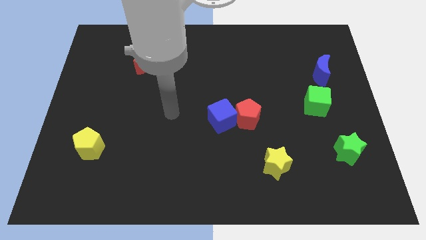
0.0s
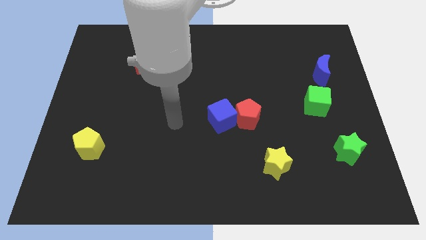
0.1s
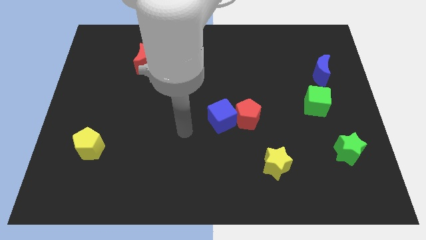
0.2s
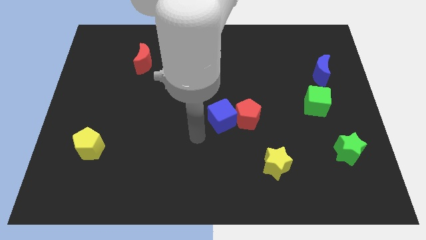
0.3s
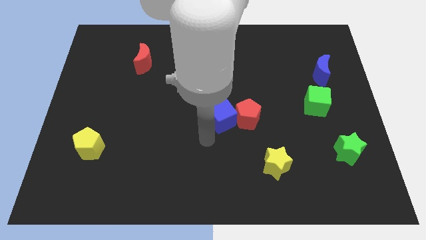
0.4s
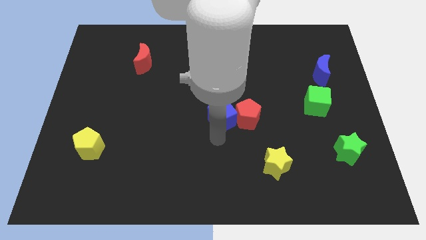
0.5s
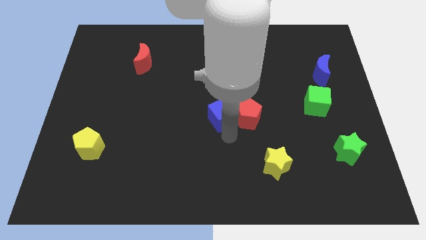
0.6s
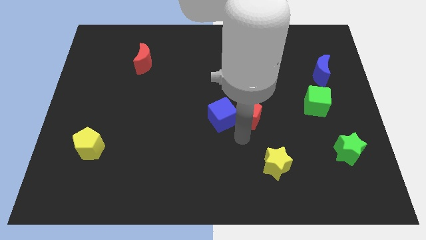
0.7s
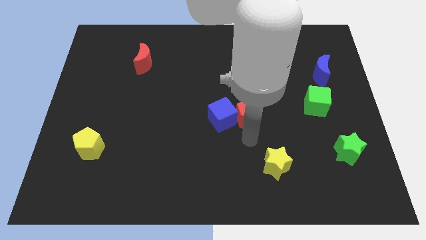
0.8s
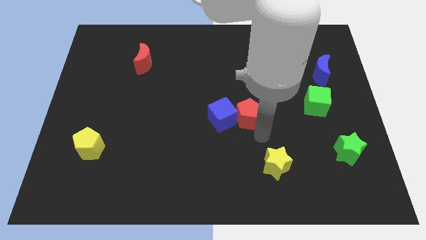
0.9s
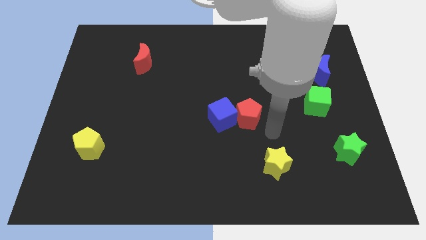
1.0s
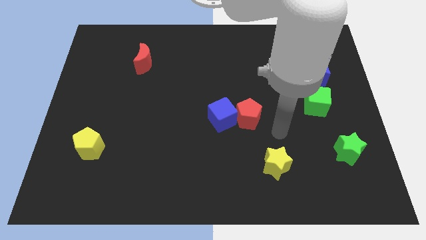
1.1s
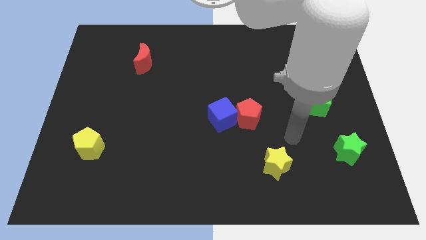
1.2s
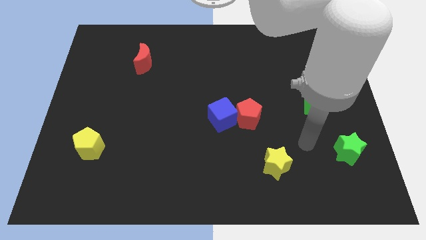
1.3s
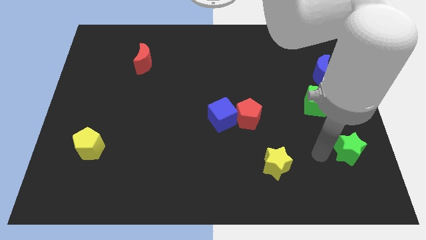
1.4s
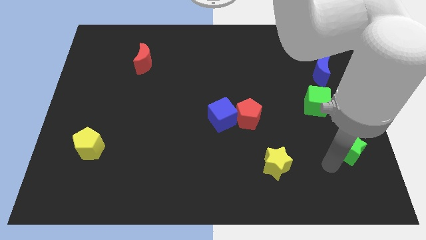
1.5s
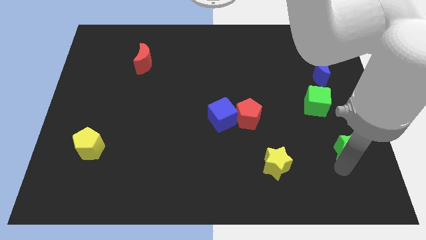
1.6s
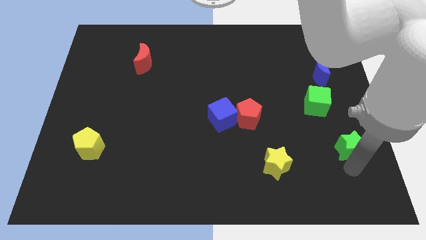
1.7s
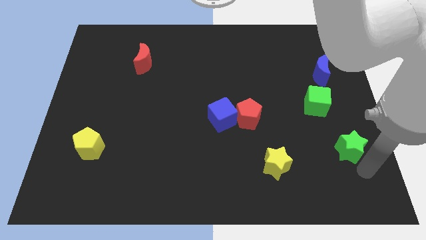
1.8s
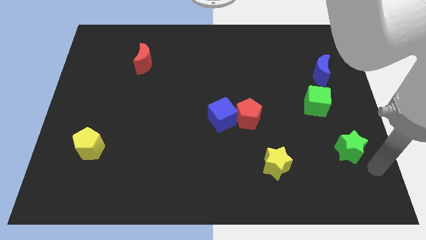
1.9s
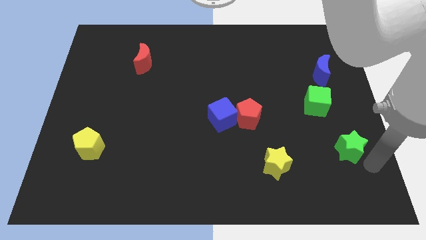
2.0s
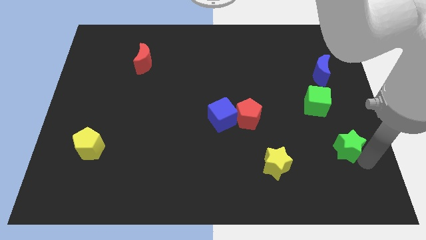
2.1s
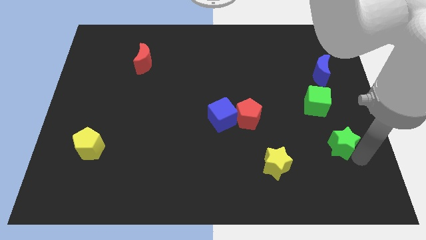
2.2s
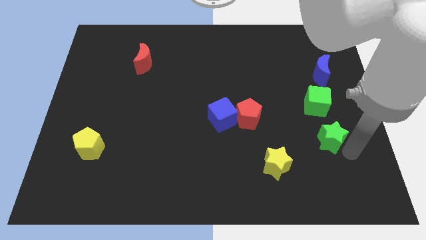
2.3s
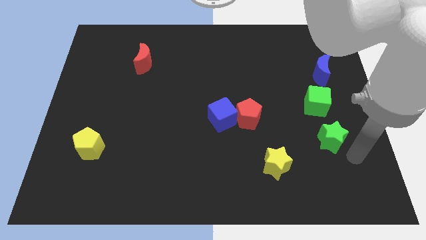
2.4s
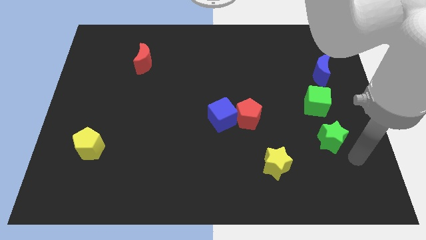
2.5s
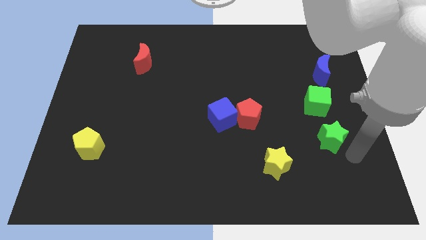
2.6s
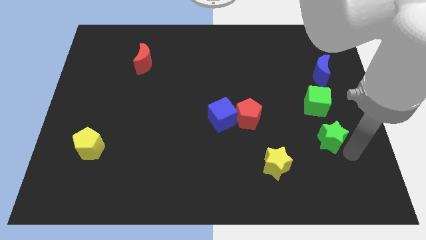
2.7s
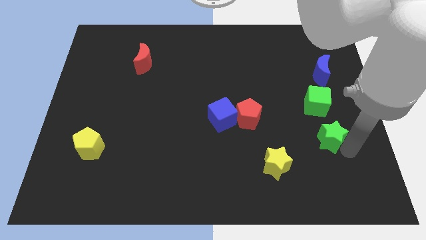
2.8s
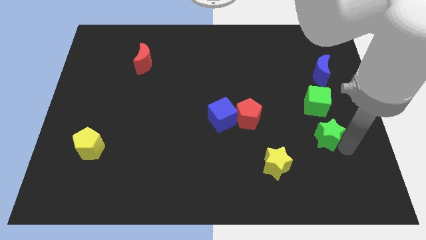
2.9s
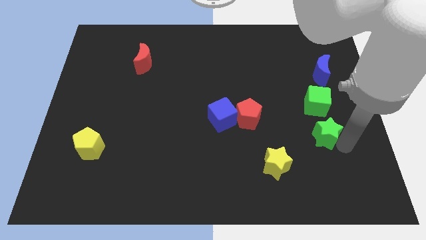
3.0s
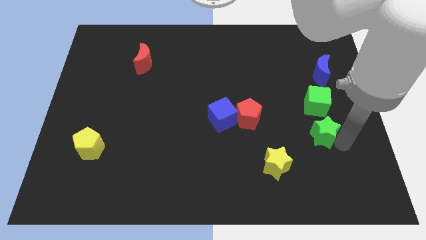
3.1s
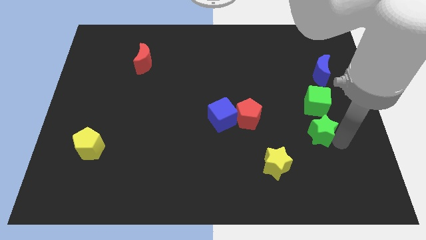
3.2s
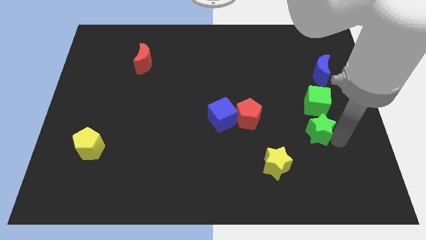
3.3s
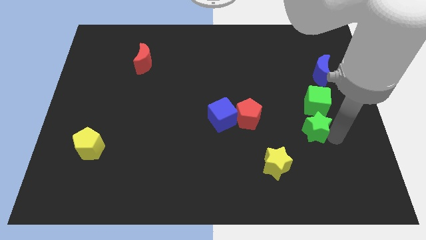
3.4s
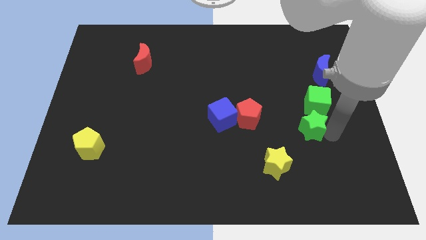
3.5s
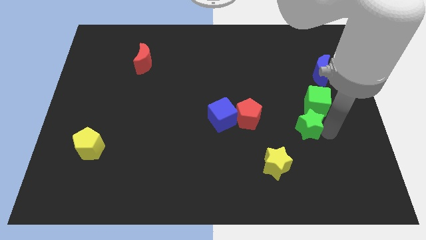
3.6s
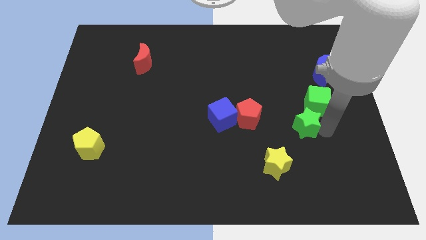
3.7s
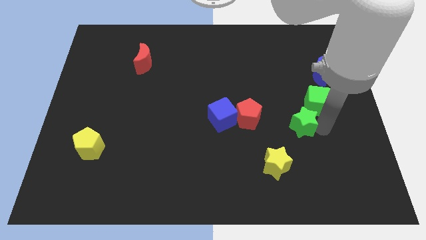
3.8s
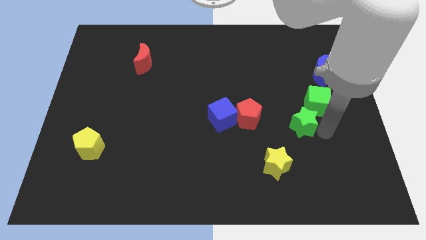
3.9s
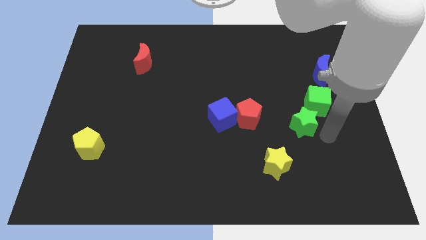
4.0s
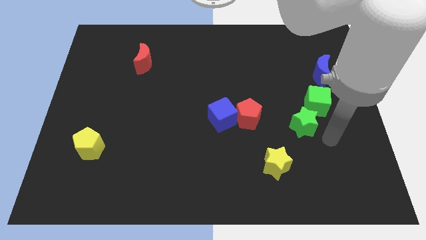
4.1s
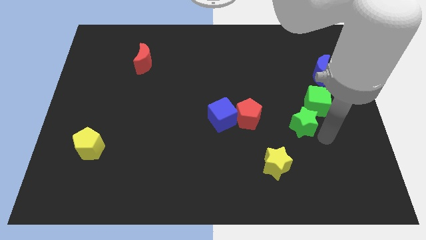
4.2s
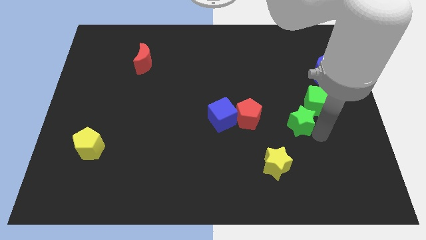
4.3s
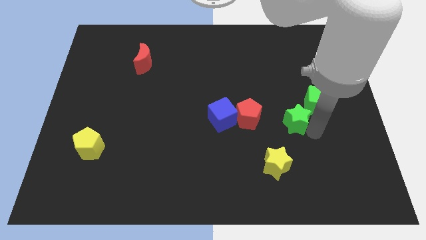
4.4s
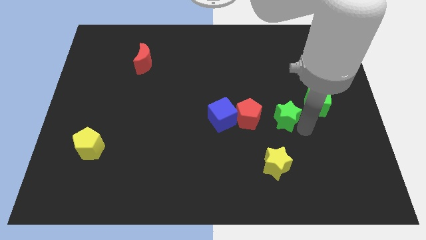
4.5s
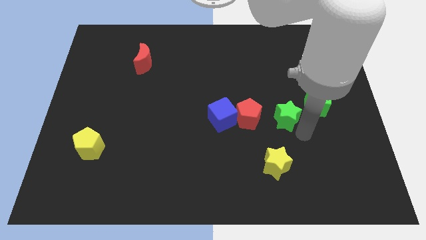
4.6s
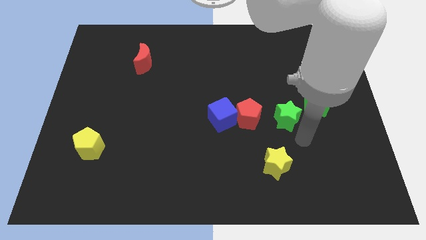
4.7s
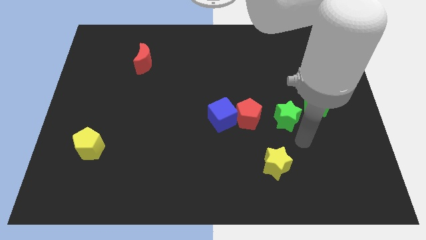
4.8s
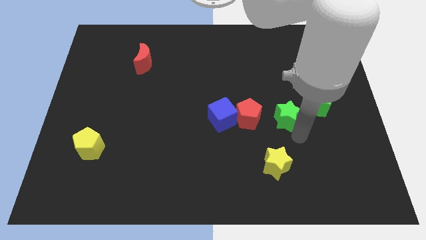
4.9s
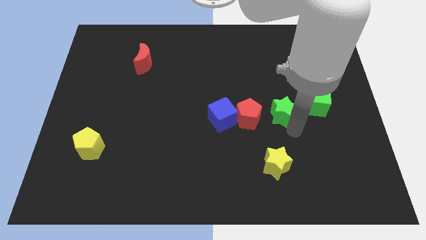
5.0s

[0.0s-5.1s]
put the green star to the top right of the red pentagon

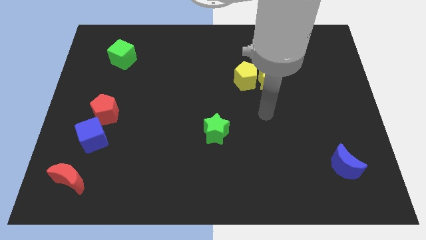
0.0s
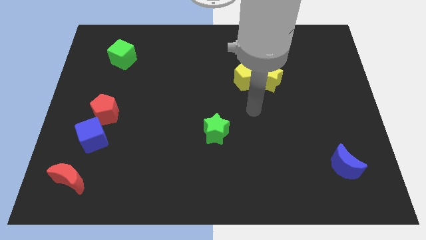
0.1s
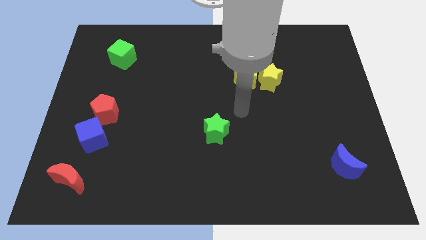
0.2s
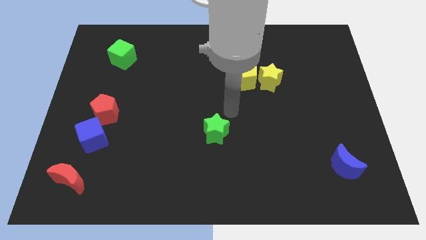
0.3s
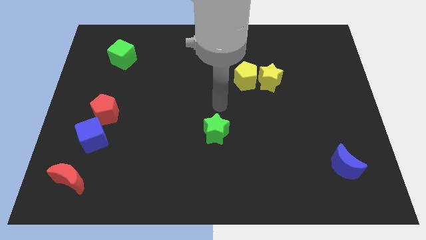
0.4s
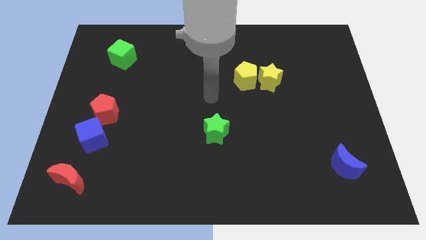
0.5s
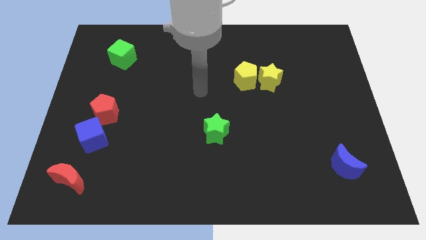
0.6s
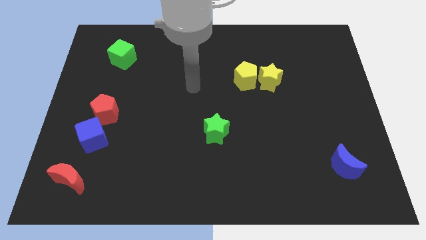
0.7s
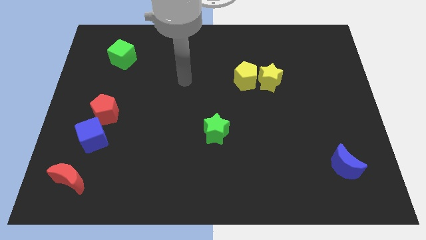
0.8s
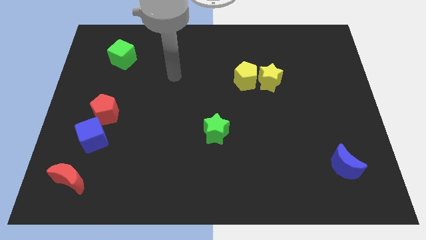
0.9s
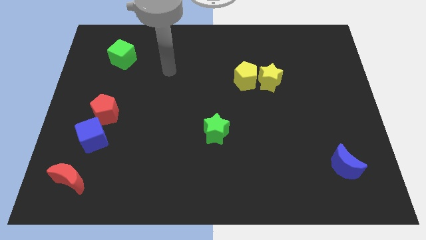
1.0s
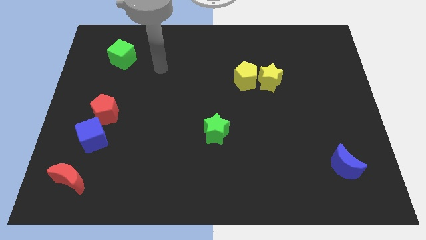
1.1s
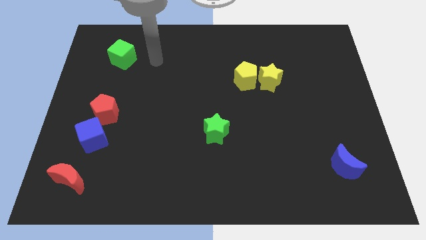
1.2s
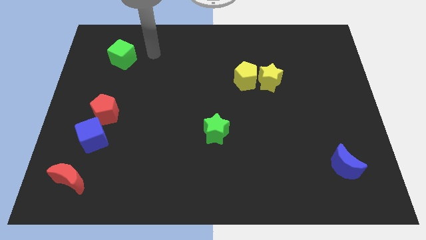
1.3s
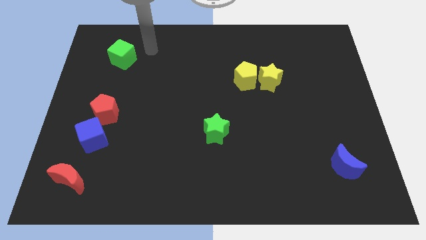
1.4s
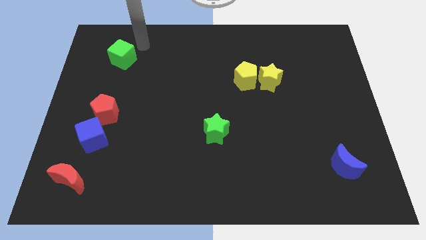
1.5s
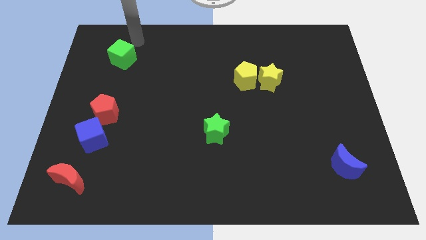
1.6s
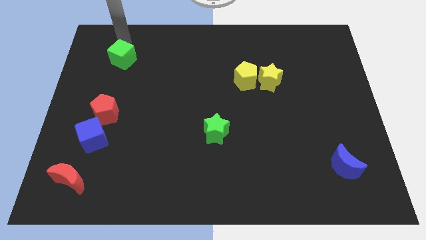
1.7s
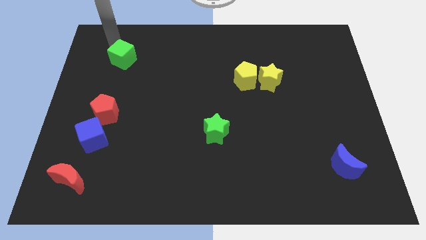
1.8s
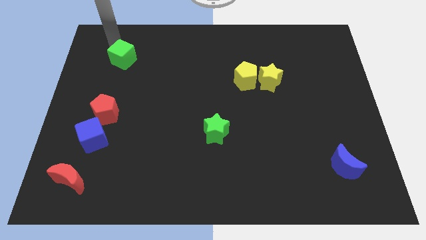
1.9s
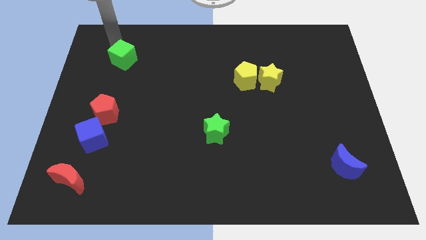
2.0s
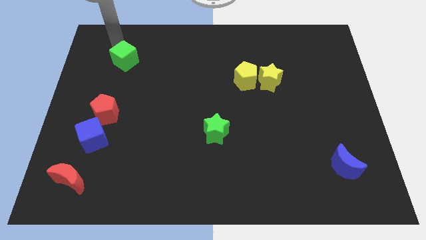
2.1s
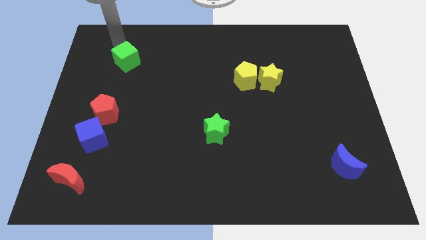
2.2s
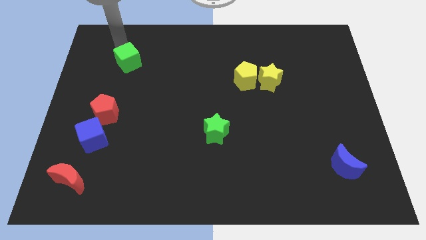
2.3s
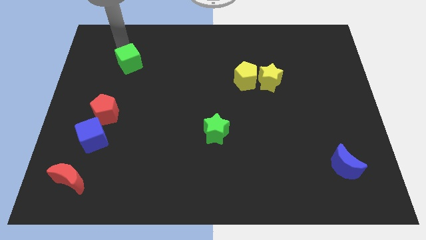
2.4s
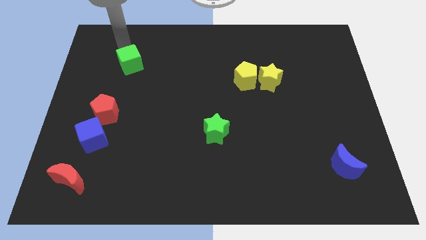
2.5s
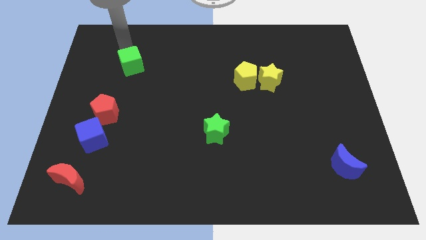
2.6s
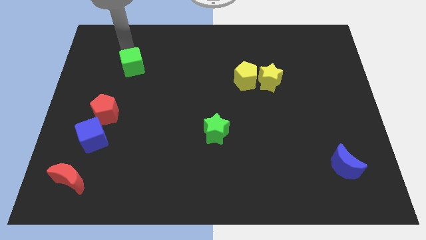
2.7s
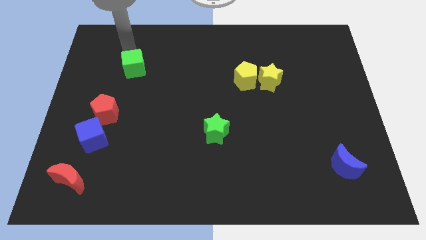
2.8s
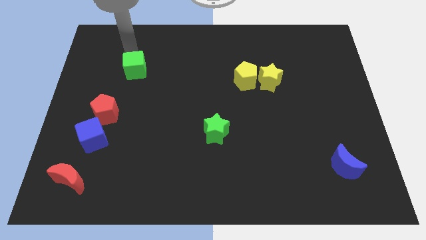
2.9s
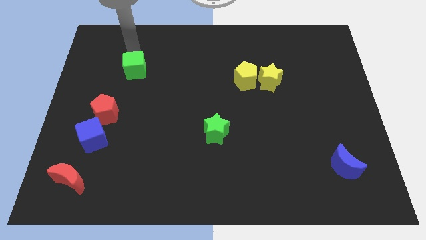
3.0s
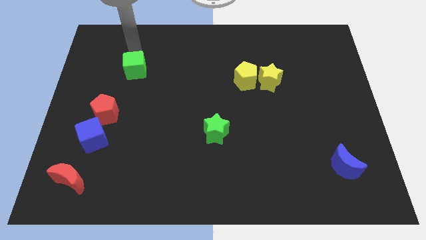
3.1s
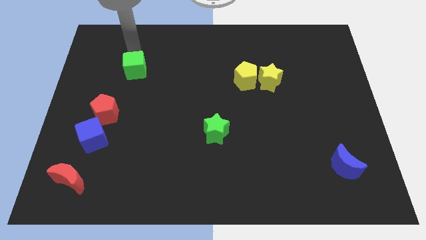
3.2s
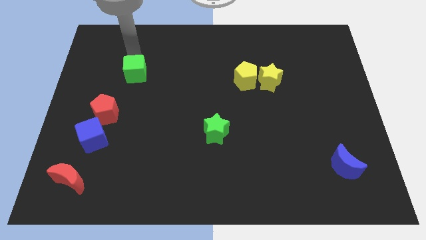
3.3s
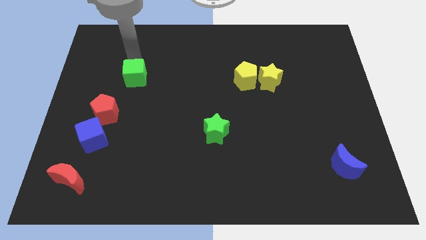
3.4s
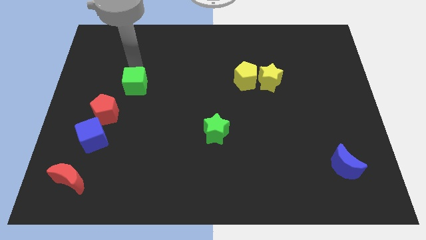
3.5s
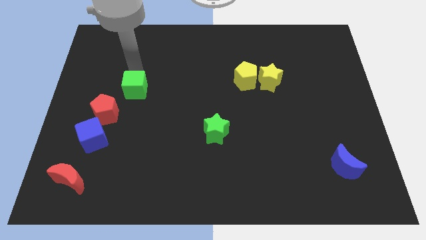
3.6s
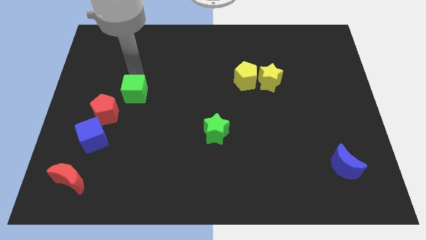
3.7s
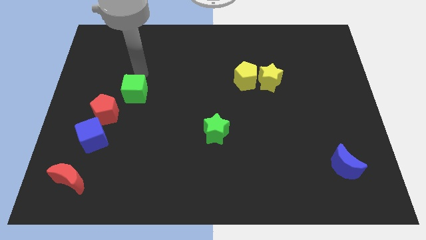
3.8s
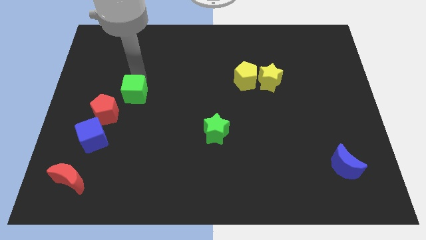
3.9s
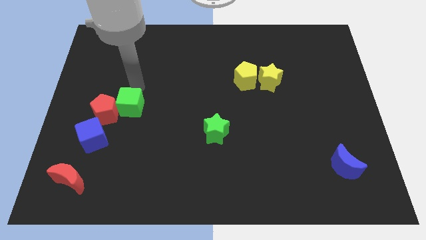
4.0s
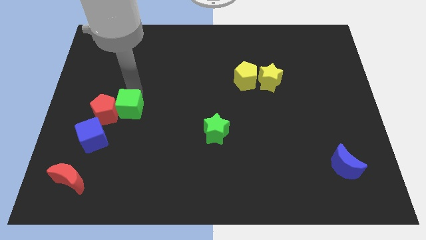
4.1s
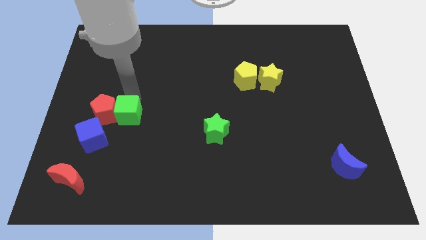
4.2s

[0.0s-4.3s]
push the green cube diagonally down and to the right of the red pentagon
